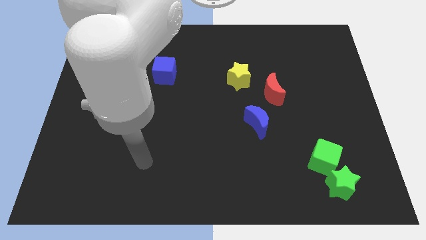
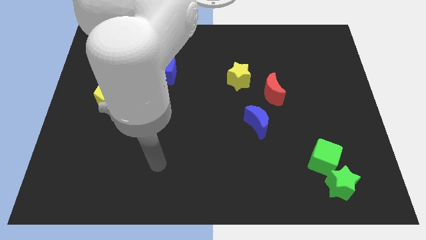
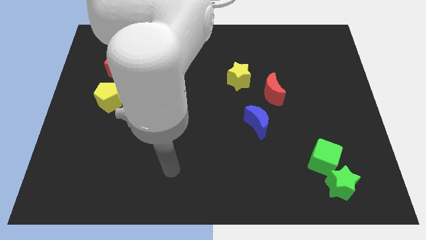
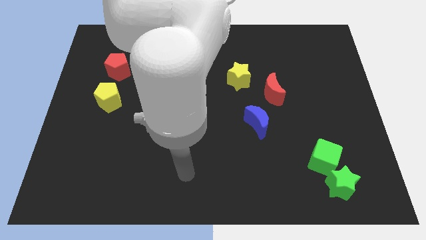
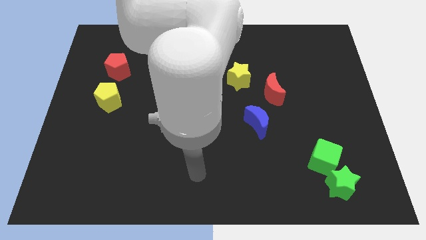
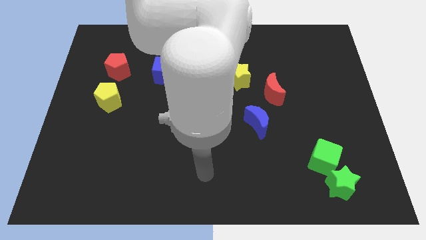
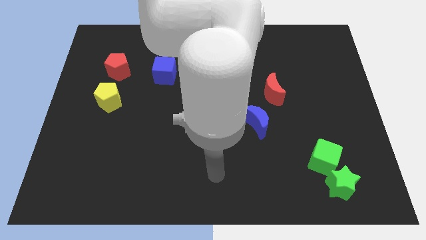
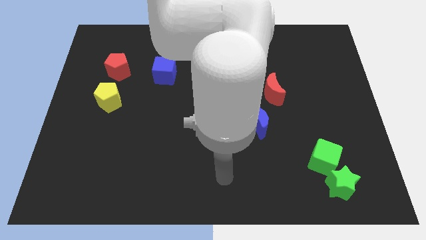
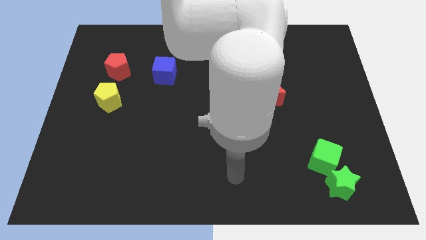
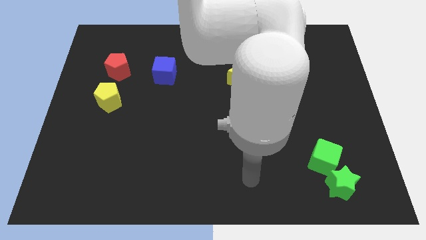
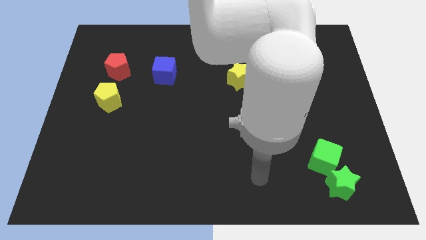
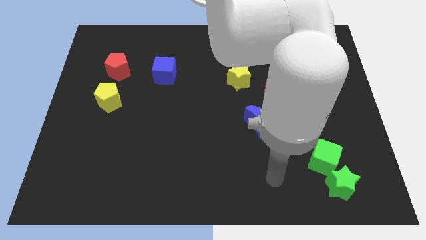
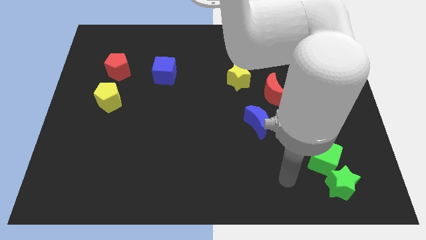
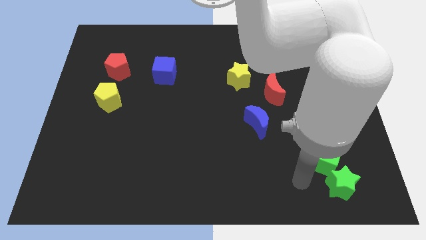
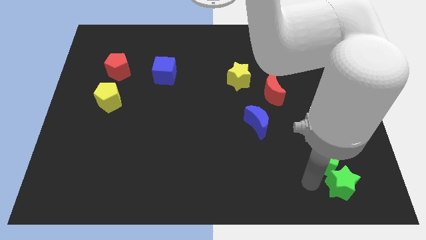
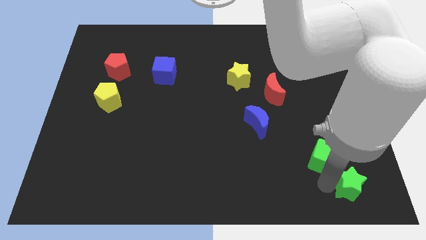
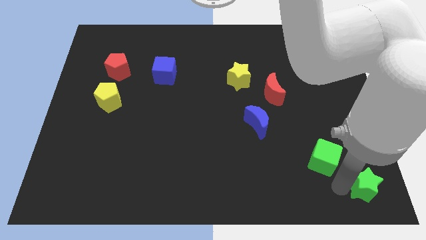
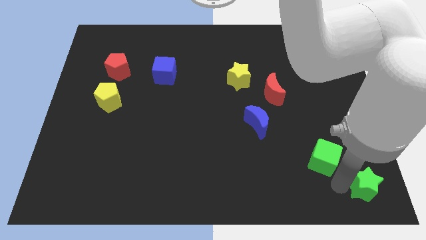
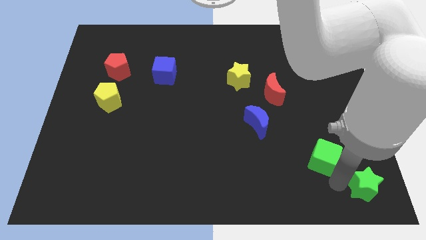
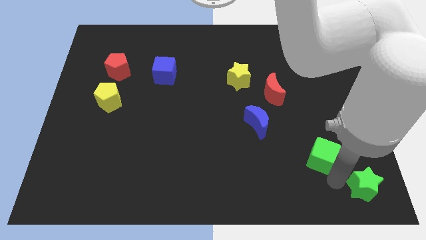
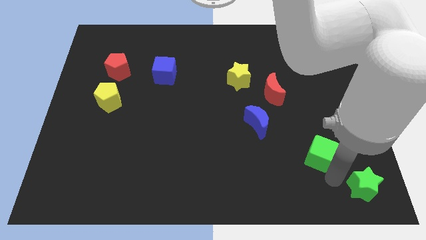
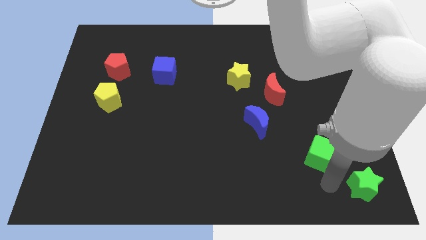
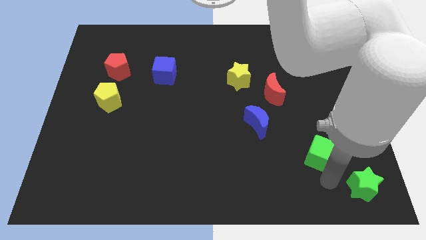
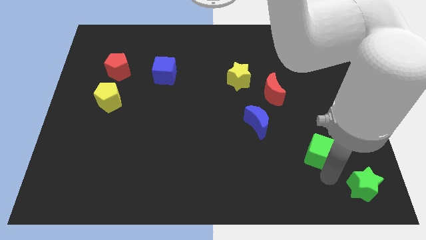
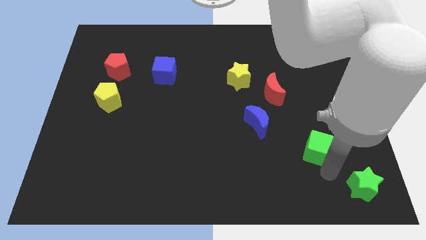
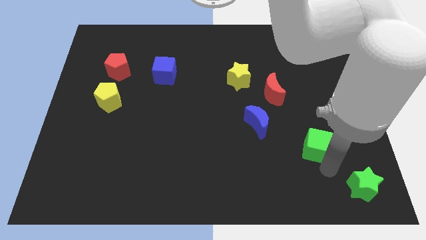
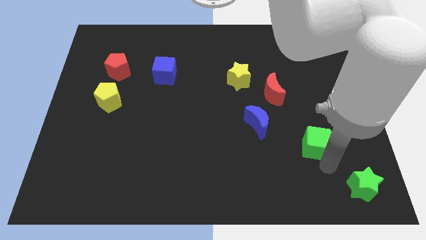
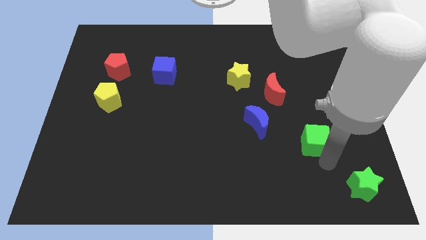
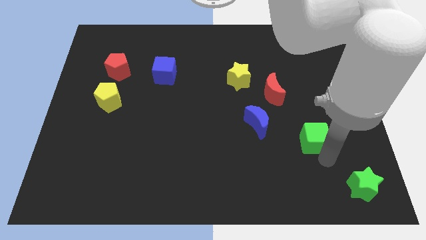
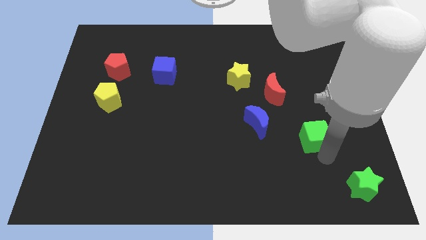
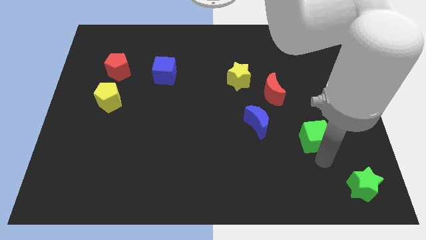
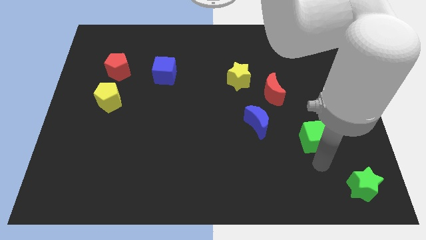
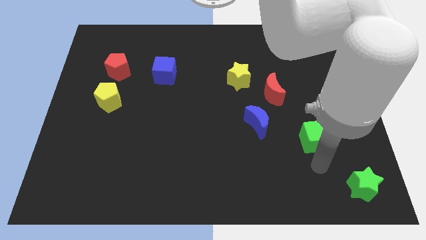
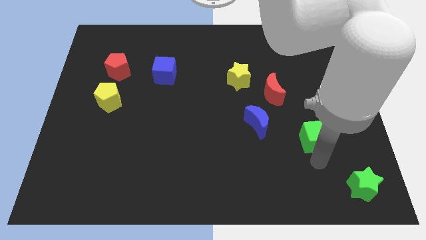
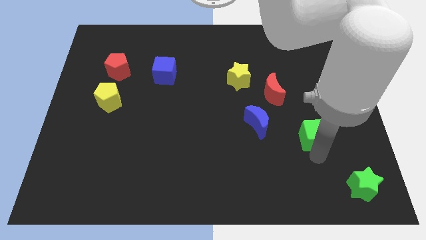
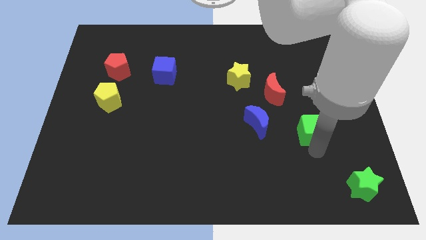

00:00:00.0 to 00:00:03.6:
slightly slide the green cube up

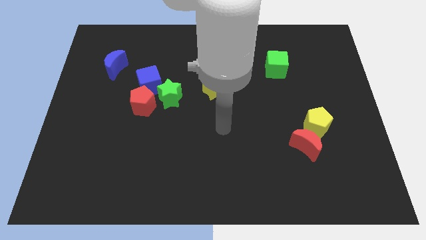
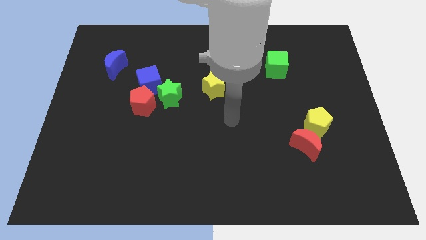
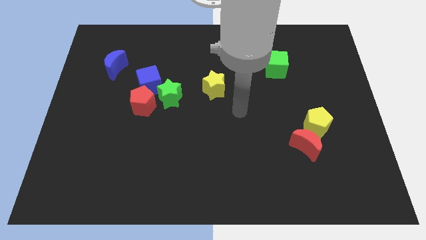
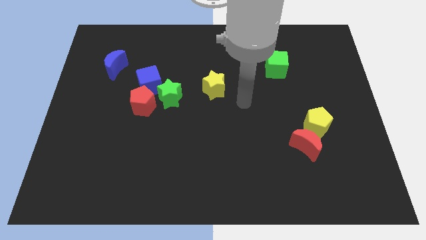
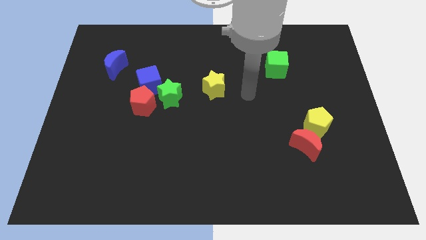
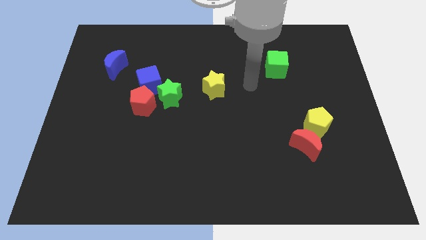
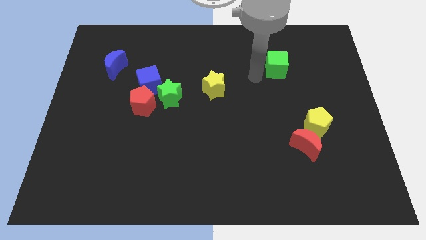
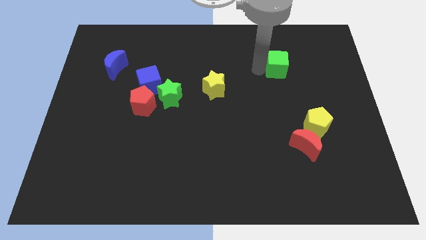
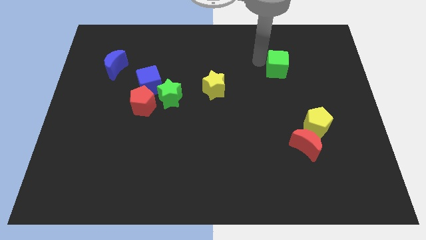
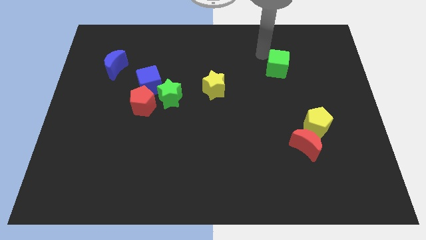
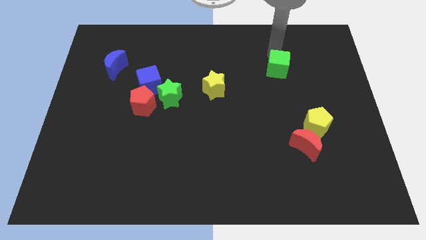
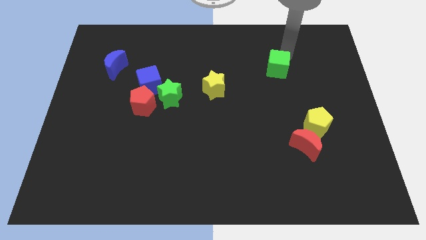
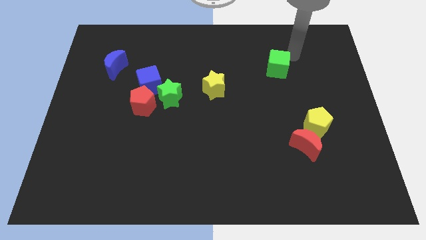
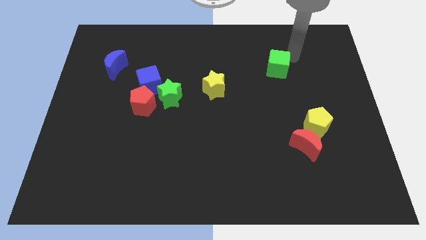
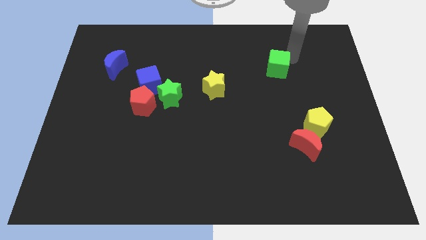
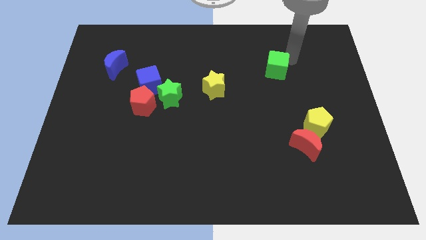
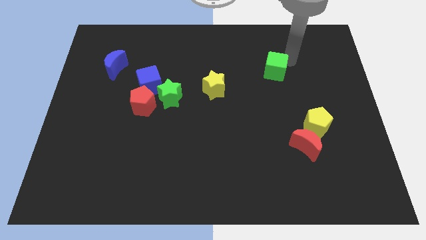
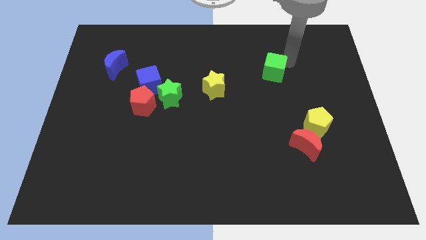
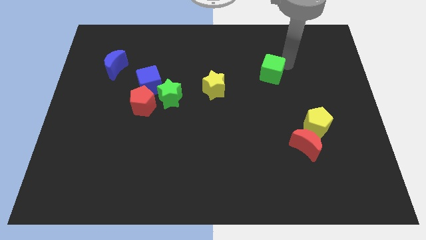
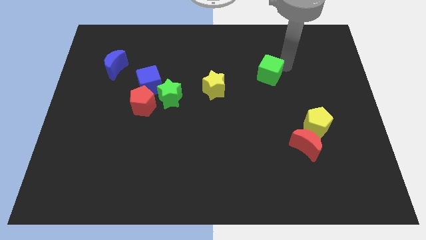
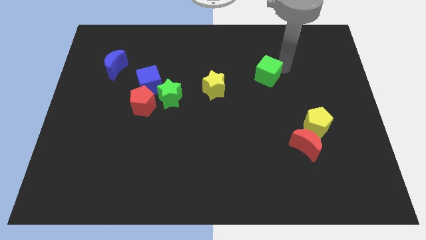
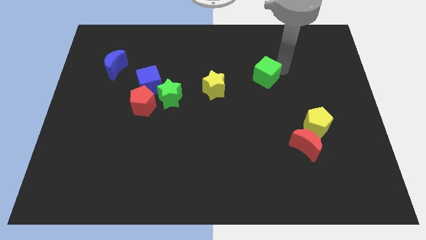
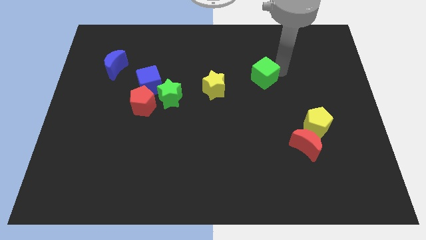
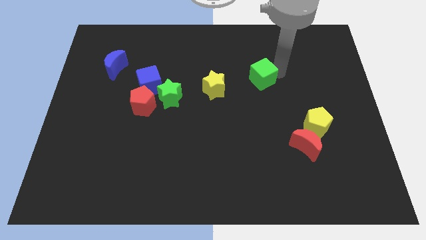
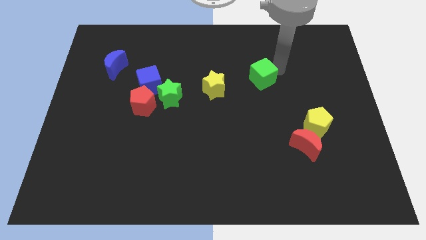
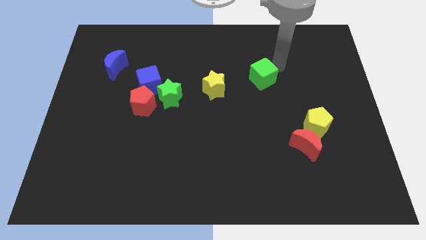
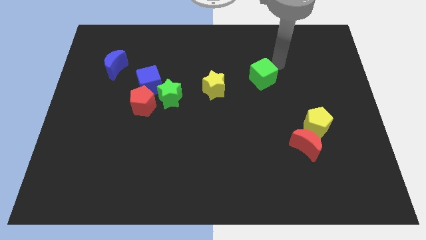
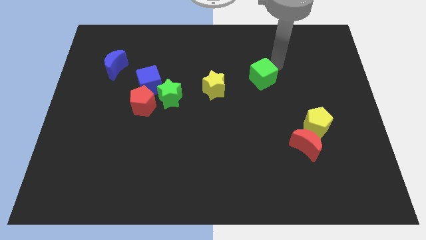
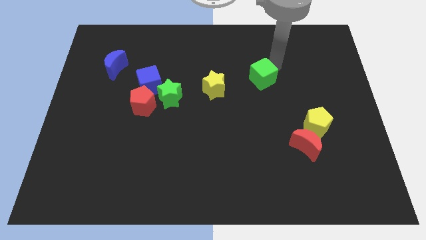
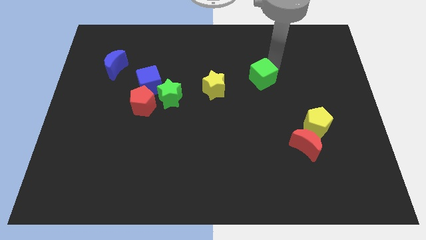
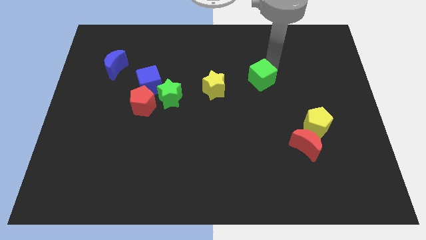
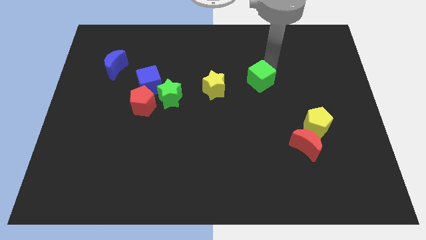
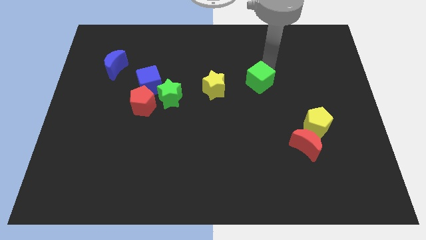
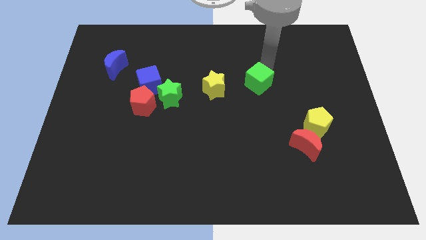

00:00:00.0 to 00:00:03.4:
slightly slide the green cube diagonally down and to the left

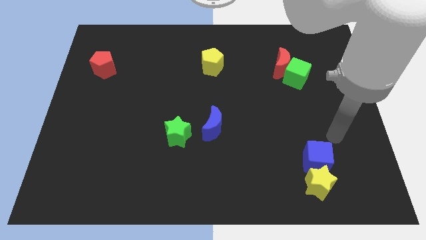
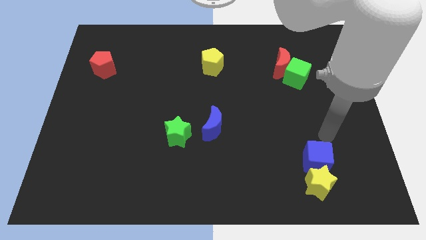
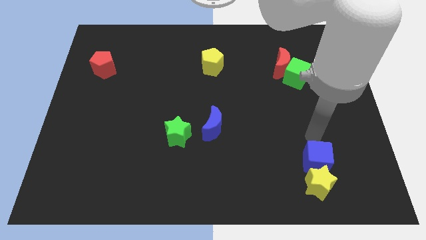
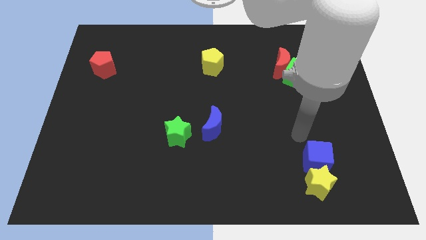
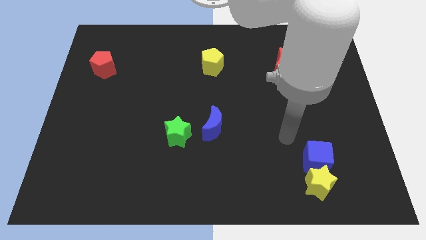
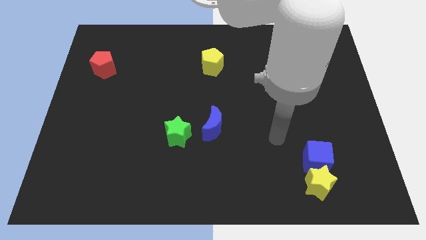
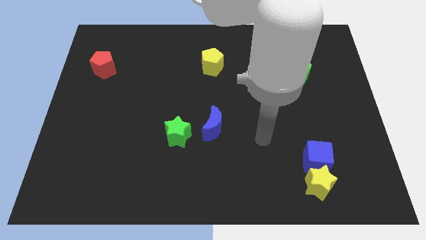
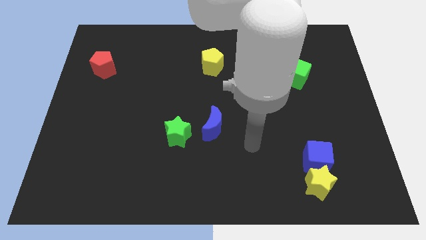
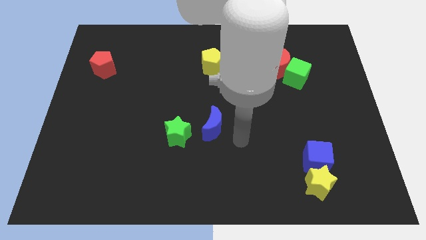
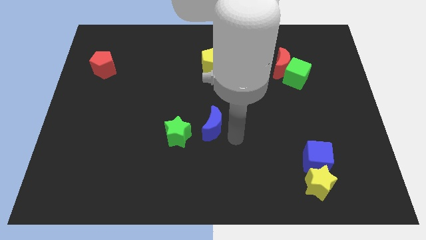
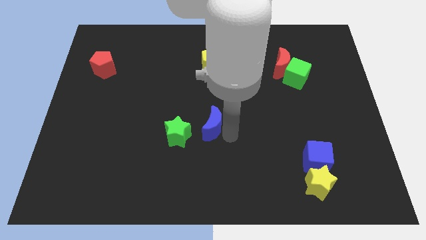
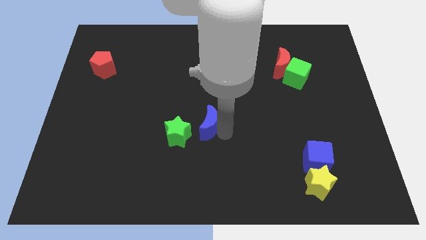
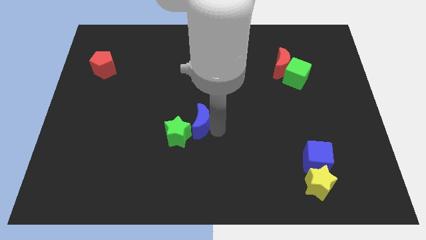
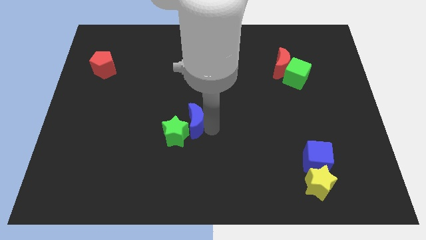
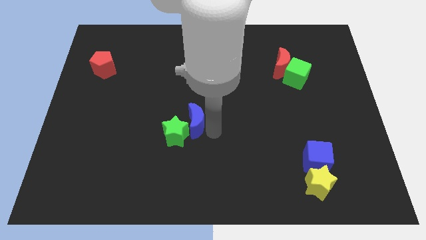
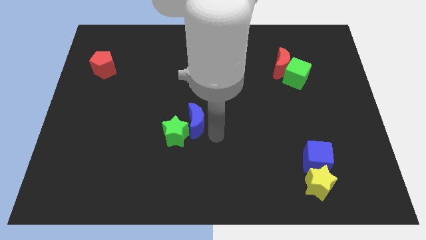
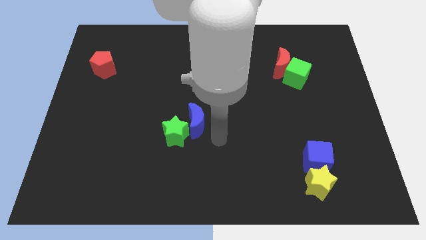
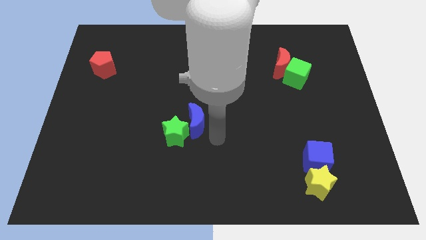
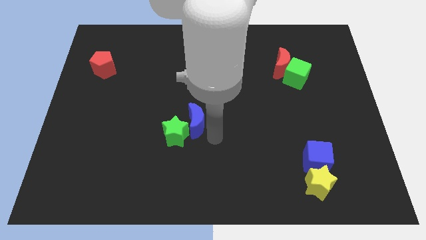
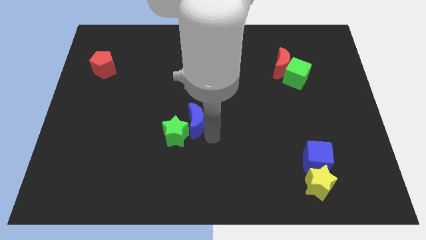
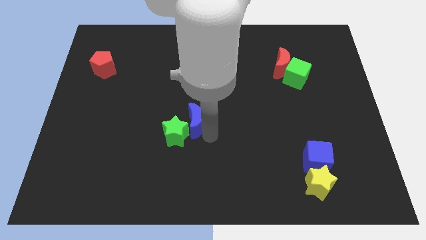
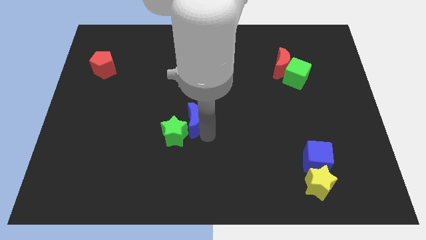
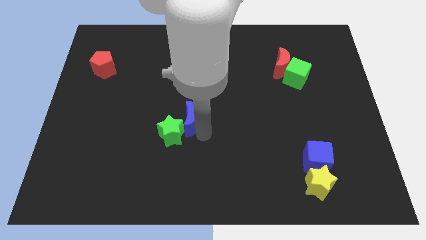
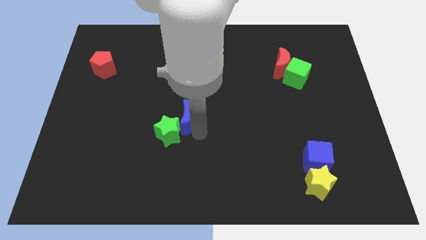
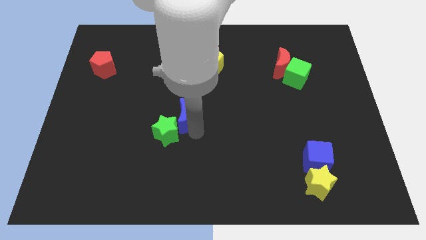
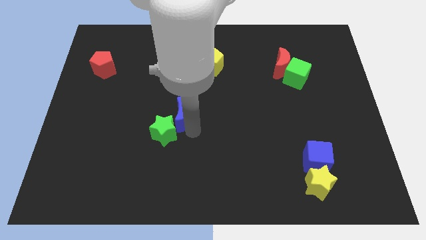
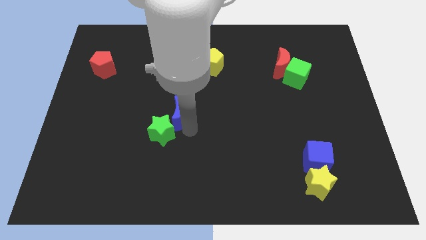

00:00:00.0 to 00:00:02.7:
move the blue moon a little up and left diagonally
